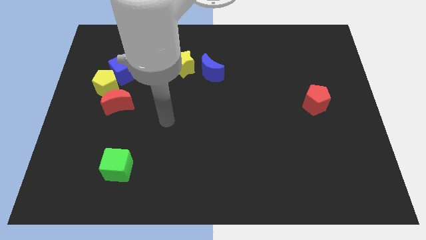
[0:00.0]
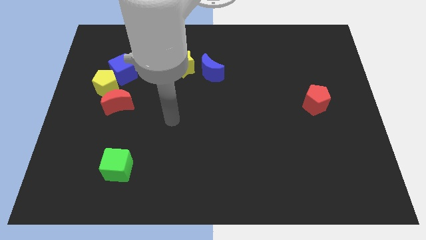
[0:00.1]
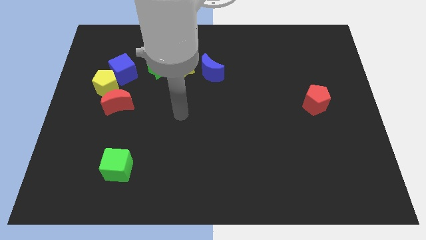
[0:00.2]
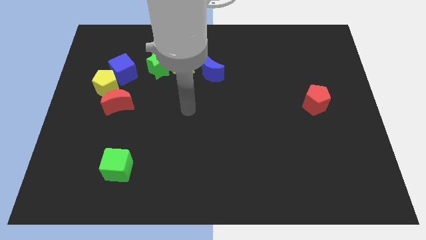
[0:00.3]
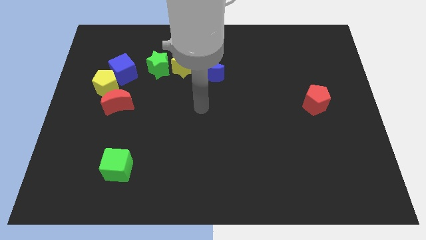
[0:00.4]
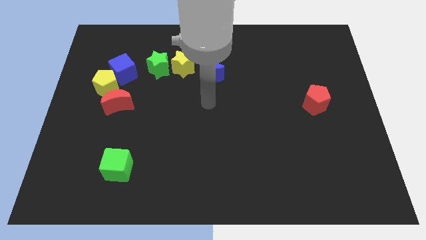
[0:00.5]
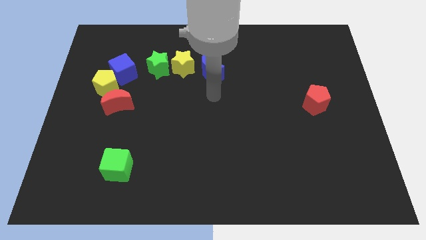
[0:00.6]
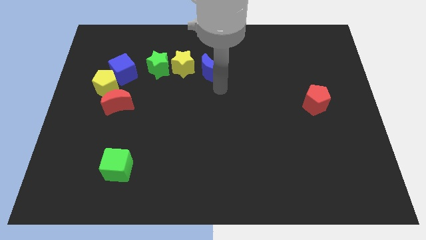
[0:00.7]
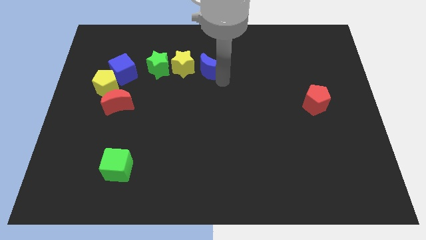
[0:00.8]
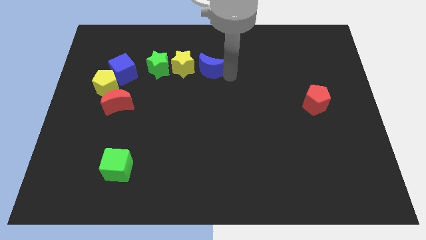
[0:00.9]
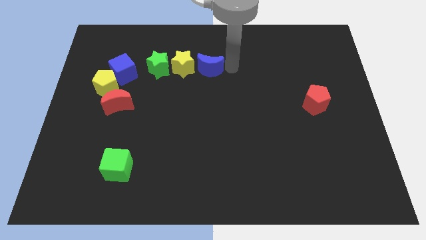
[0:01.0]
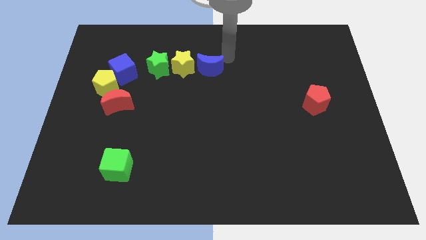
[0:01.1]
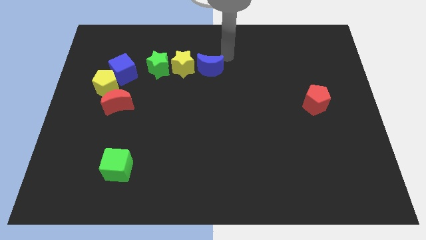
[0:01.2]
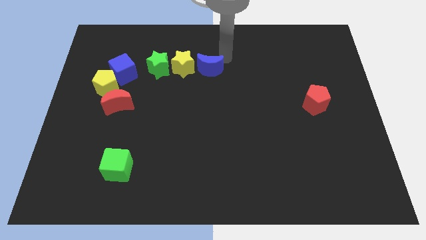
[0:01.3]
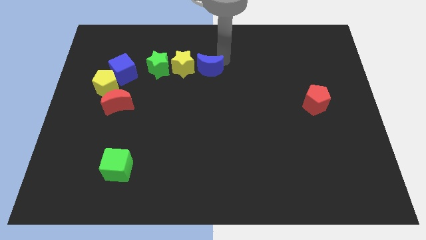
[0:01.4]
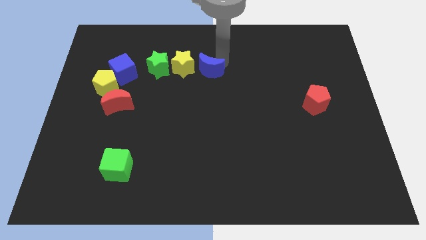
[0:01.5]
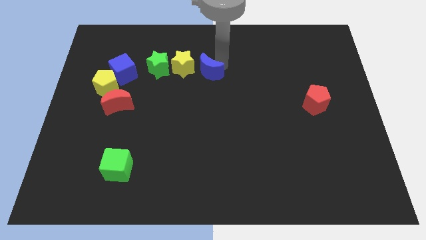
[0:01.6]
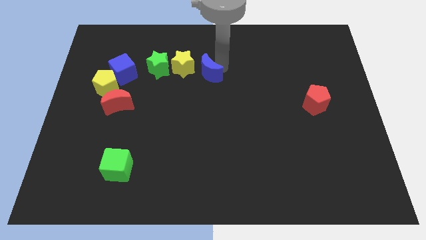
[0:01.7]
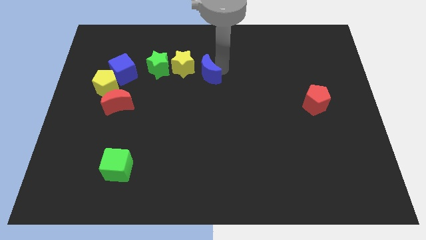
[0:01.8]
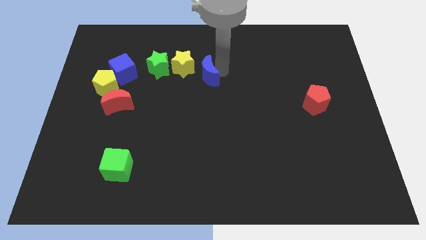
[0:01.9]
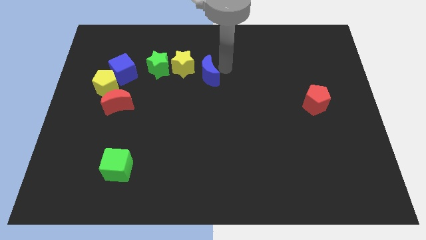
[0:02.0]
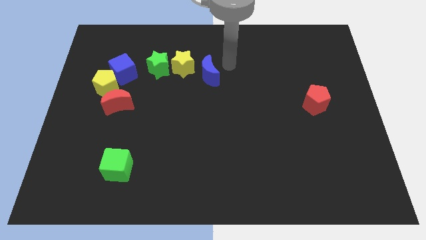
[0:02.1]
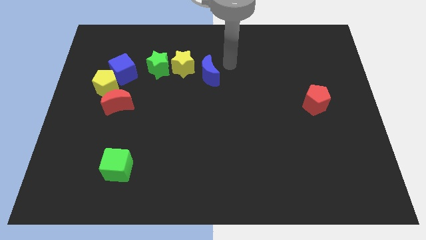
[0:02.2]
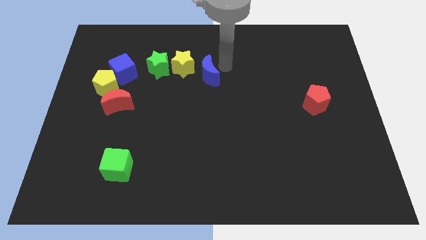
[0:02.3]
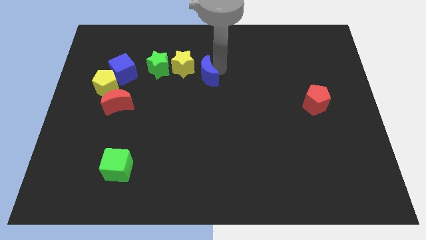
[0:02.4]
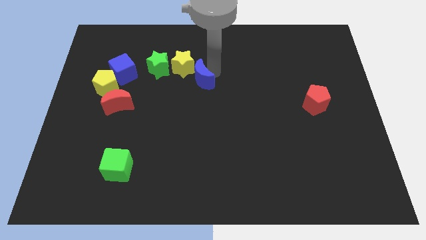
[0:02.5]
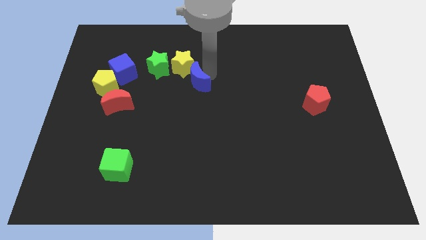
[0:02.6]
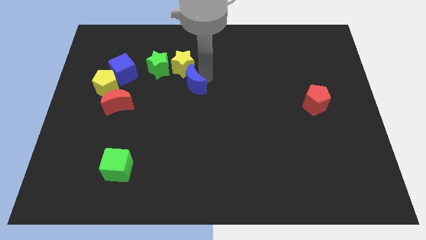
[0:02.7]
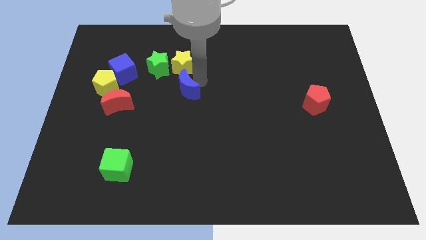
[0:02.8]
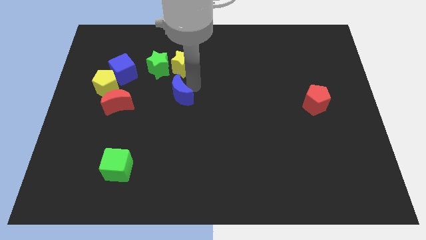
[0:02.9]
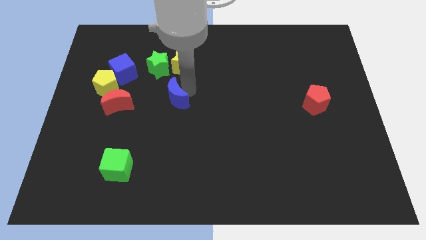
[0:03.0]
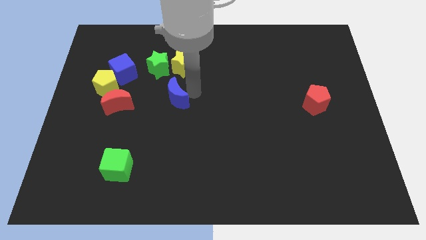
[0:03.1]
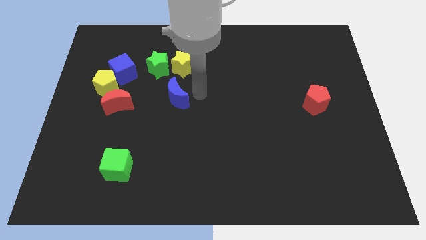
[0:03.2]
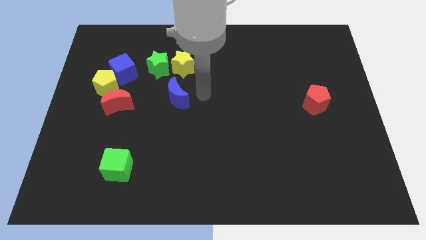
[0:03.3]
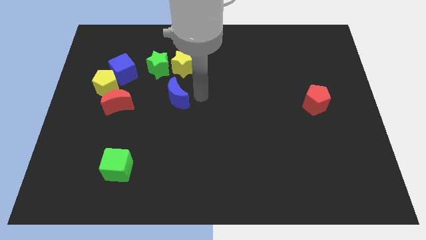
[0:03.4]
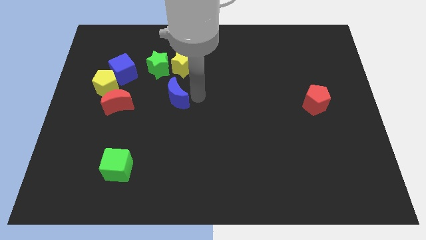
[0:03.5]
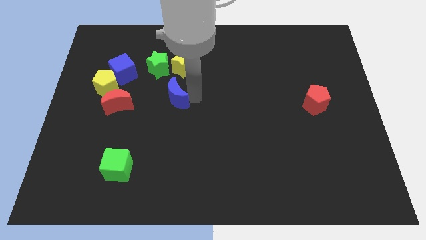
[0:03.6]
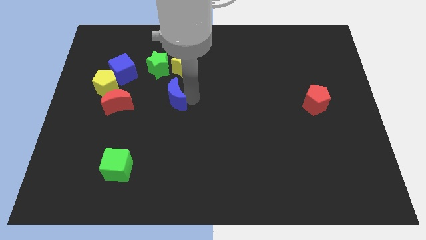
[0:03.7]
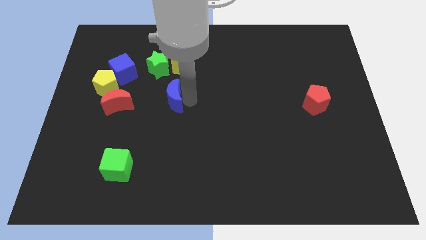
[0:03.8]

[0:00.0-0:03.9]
push the blue moon below the green star

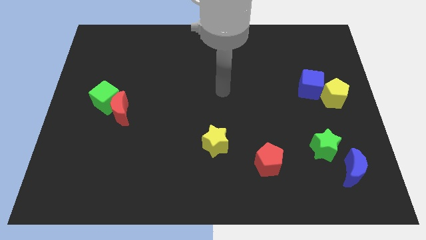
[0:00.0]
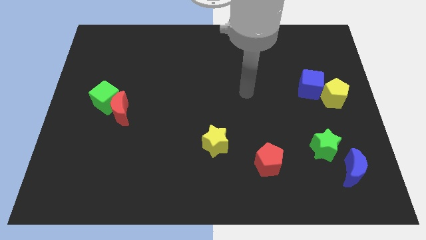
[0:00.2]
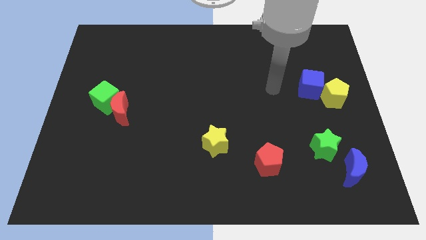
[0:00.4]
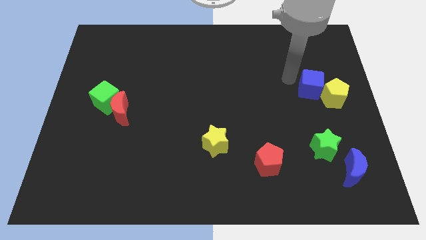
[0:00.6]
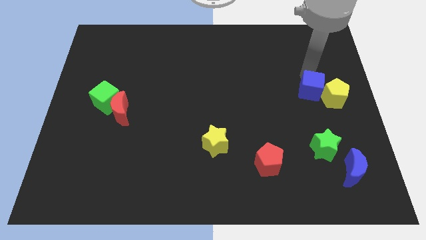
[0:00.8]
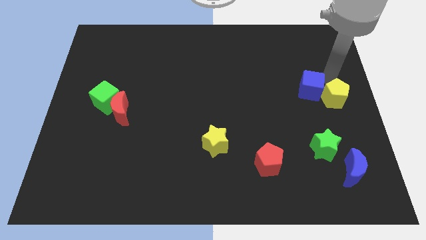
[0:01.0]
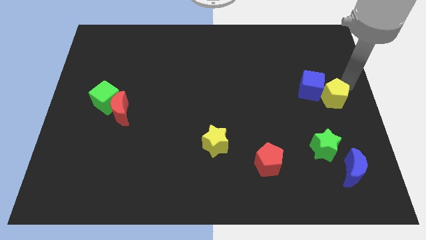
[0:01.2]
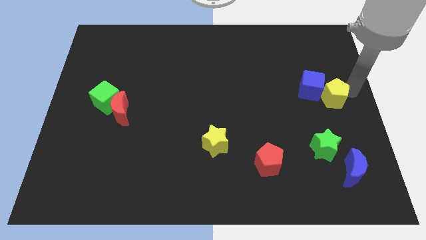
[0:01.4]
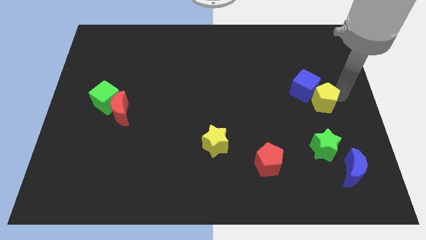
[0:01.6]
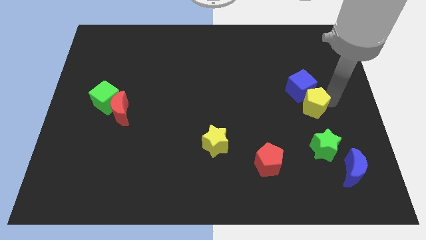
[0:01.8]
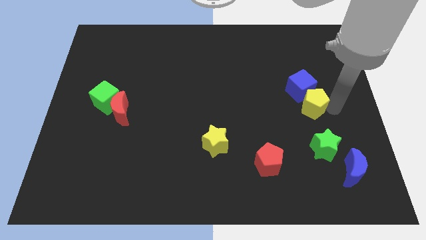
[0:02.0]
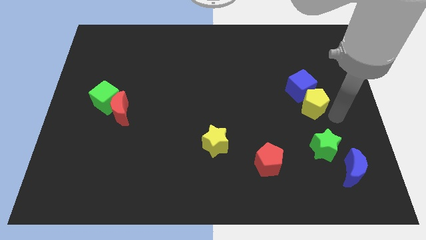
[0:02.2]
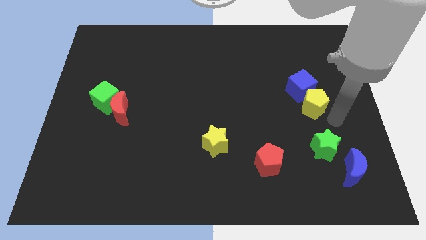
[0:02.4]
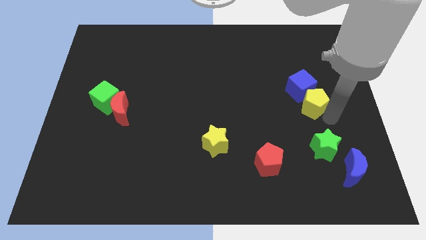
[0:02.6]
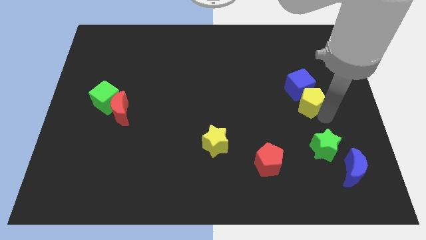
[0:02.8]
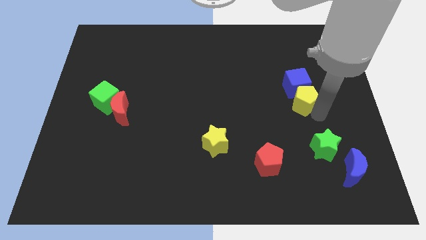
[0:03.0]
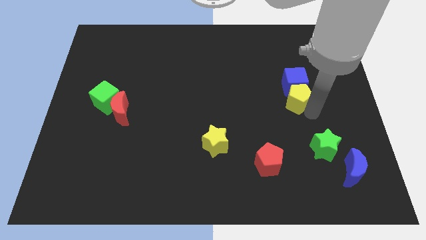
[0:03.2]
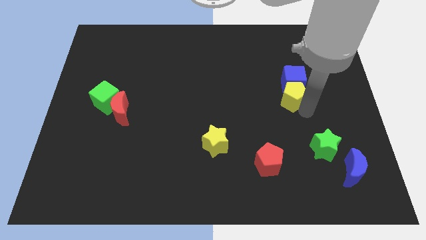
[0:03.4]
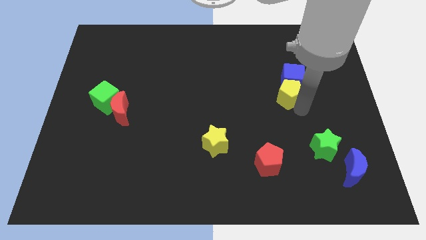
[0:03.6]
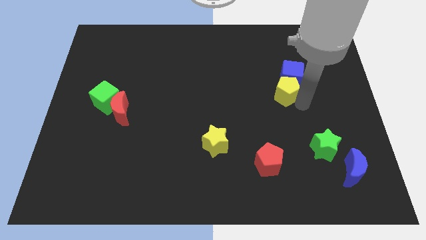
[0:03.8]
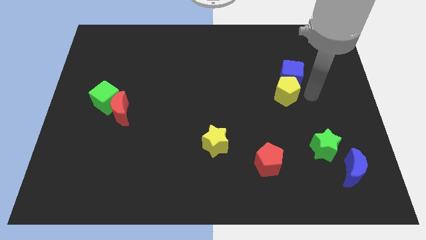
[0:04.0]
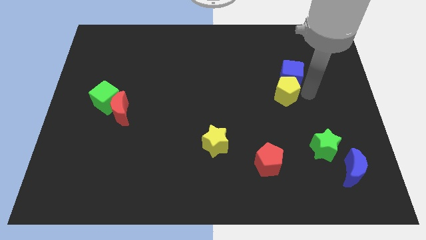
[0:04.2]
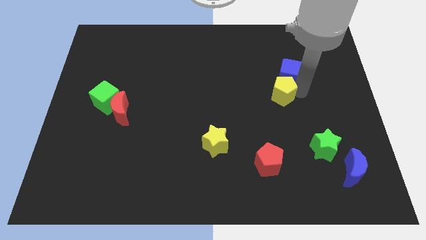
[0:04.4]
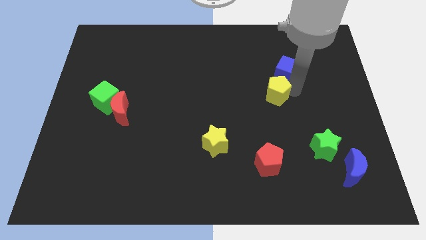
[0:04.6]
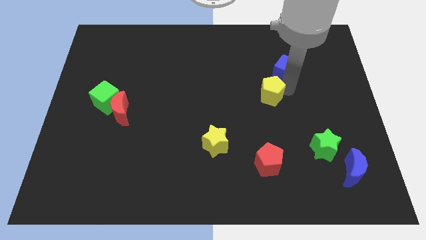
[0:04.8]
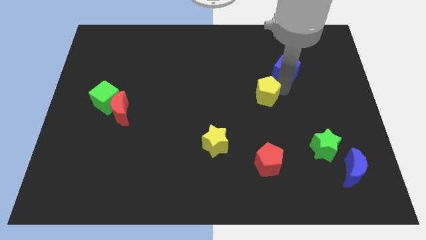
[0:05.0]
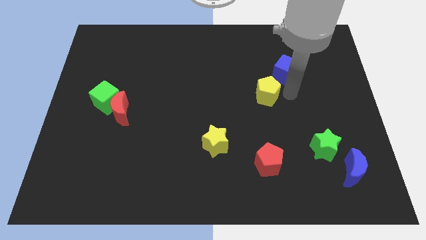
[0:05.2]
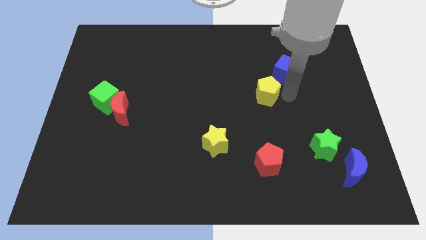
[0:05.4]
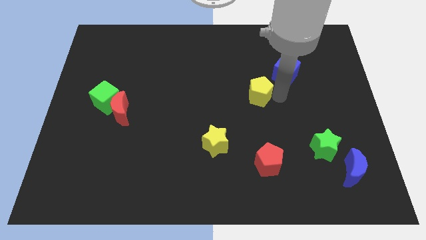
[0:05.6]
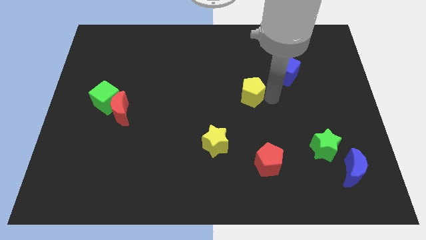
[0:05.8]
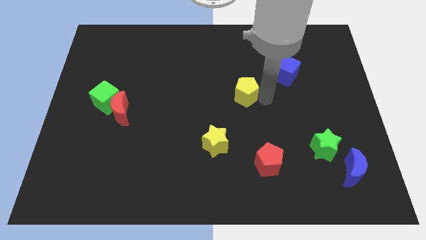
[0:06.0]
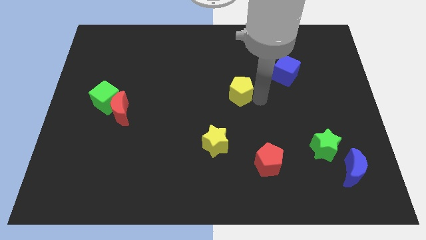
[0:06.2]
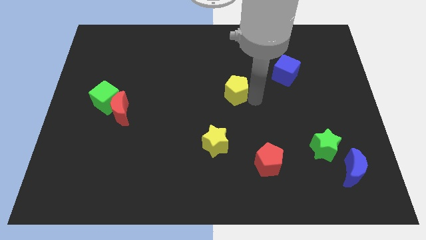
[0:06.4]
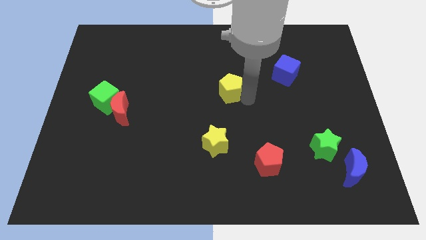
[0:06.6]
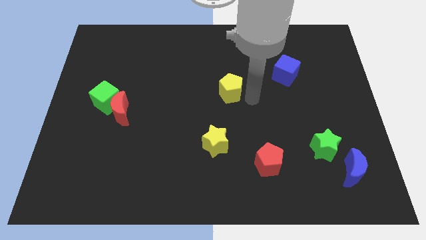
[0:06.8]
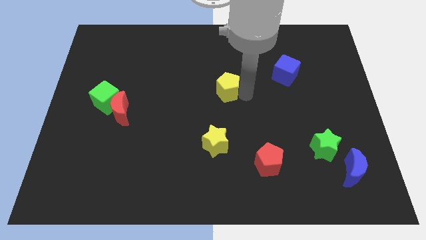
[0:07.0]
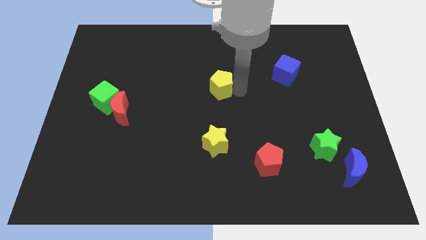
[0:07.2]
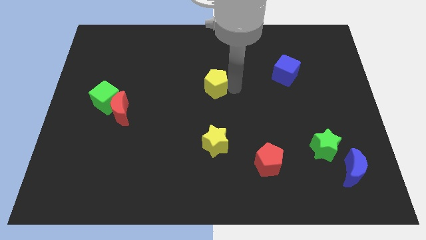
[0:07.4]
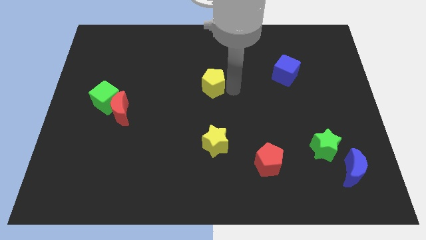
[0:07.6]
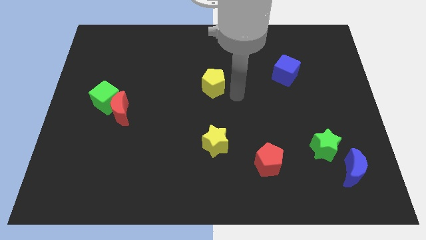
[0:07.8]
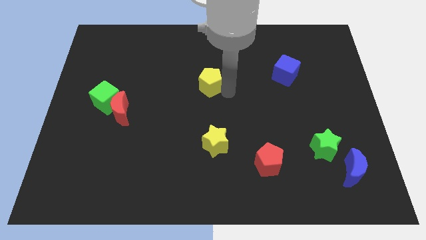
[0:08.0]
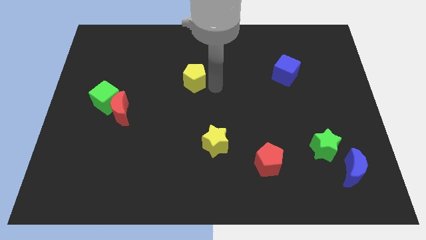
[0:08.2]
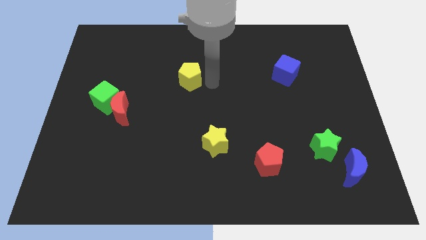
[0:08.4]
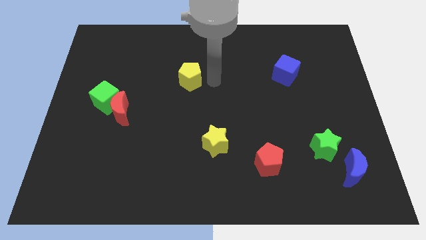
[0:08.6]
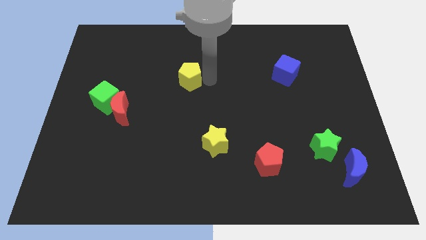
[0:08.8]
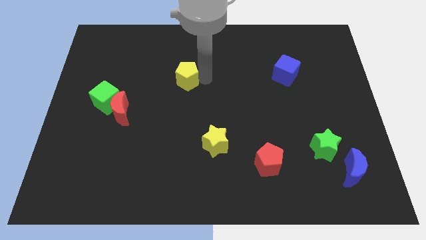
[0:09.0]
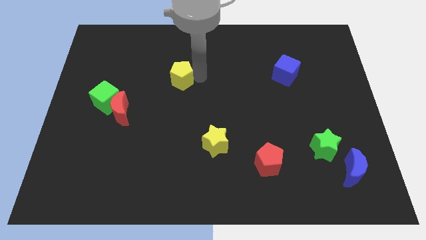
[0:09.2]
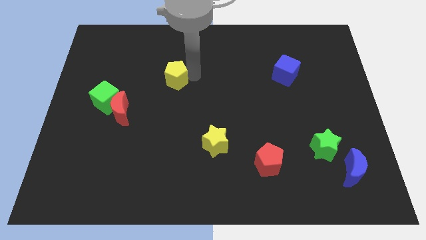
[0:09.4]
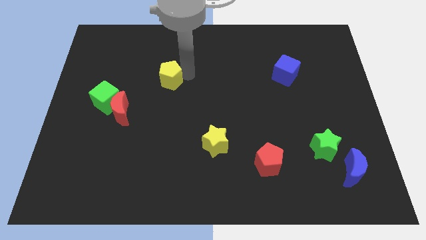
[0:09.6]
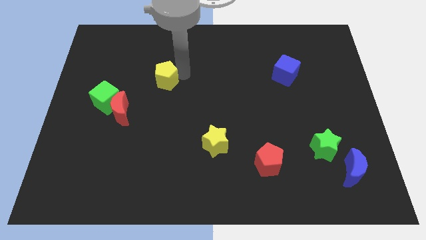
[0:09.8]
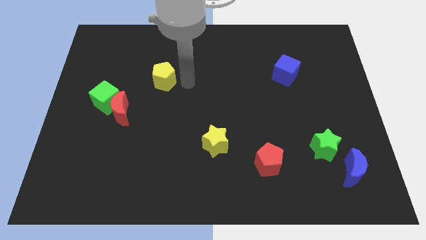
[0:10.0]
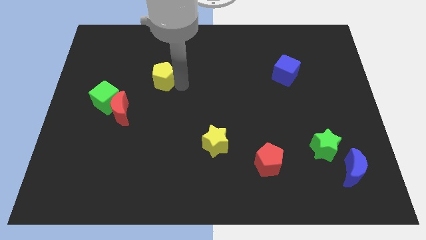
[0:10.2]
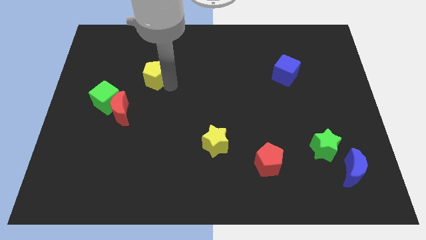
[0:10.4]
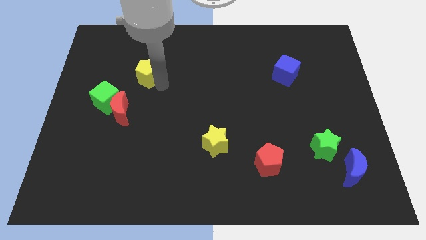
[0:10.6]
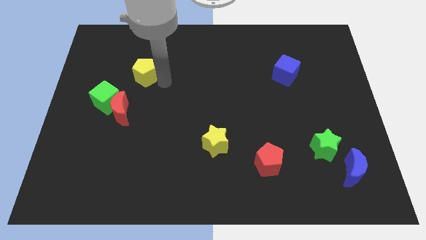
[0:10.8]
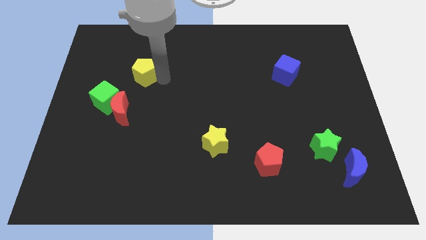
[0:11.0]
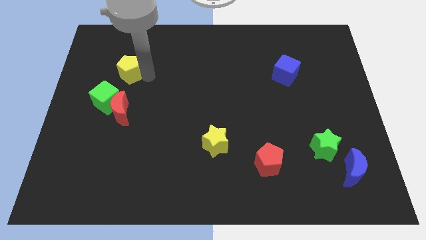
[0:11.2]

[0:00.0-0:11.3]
move the yellow pentagon above the green cube
